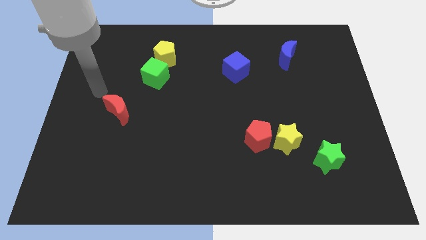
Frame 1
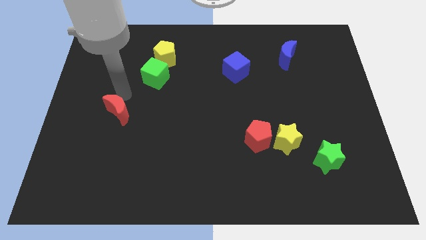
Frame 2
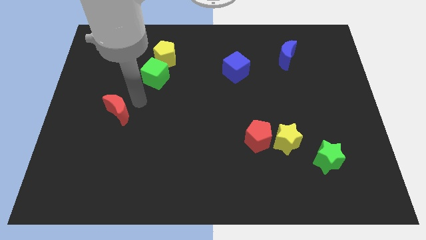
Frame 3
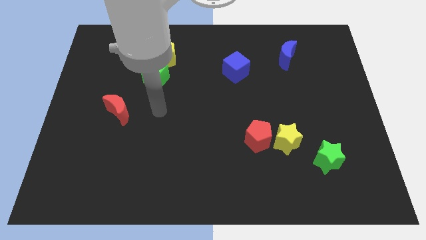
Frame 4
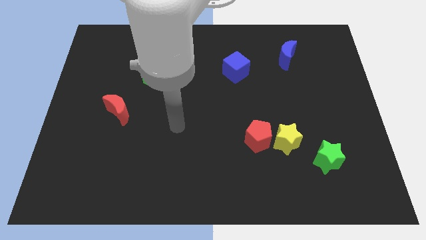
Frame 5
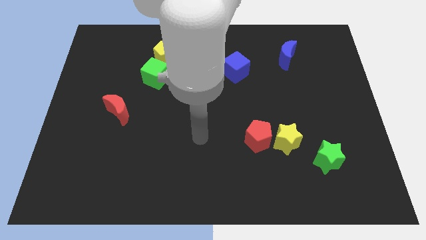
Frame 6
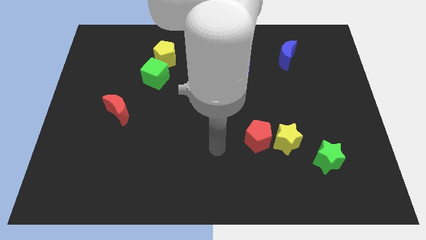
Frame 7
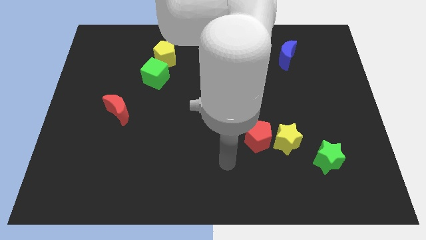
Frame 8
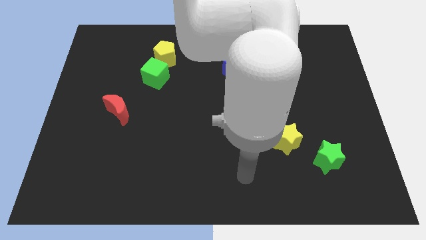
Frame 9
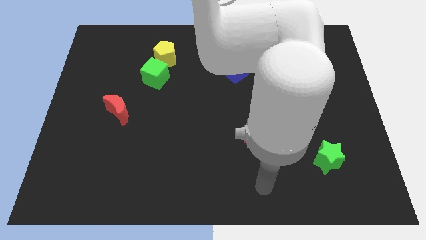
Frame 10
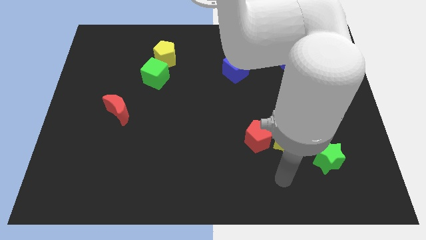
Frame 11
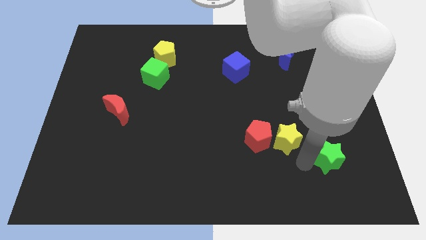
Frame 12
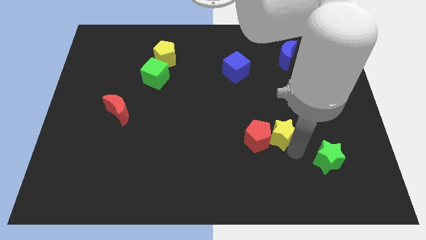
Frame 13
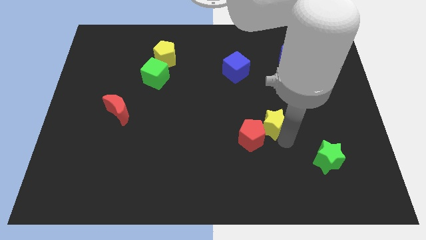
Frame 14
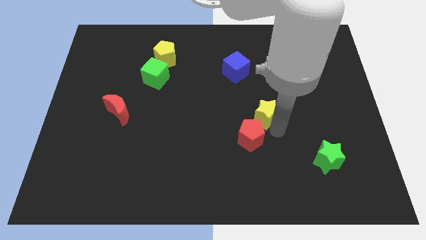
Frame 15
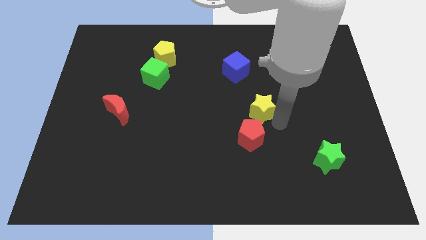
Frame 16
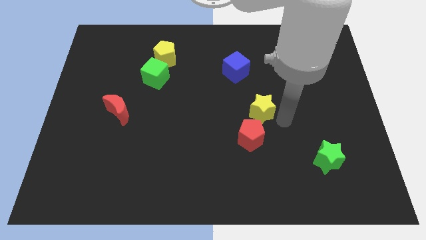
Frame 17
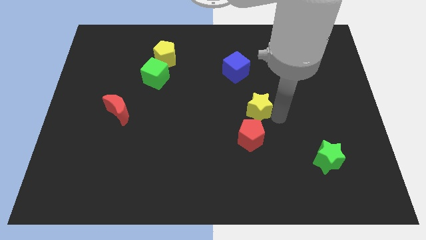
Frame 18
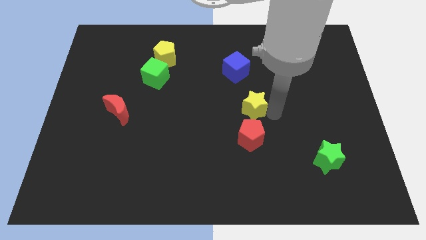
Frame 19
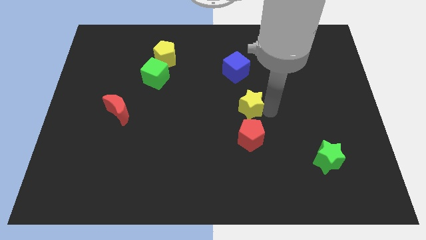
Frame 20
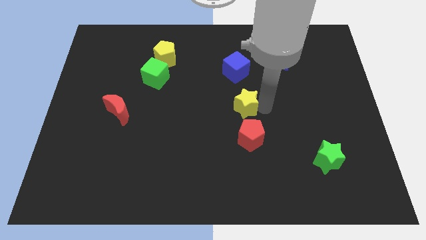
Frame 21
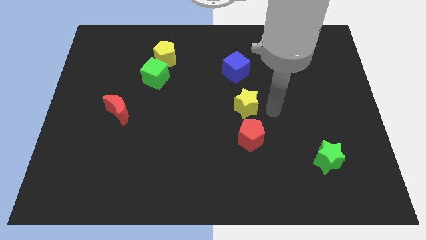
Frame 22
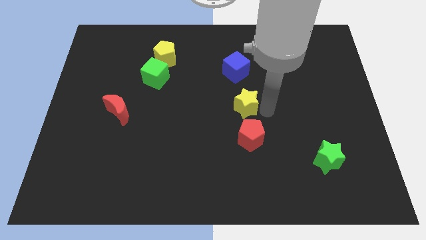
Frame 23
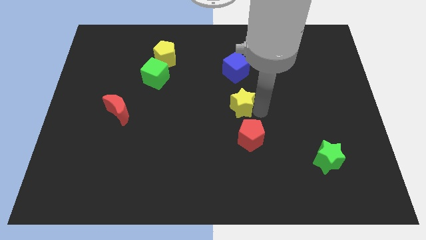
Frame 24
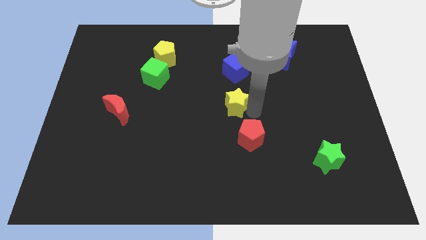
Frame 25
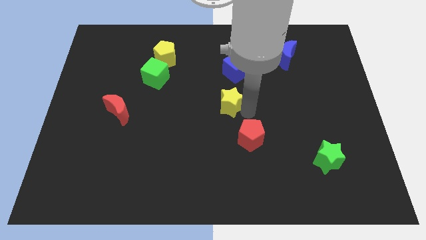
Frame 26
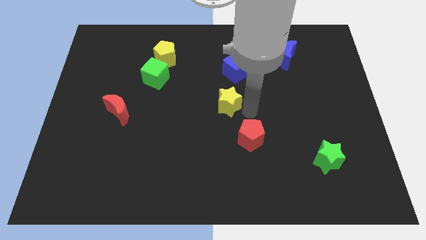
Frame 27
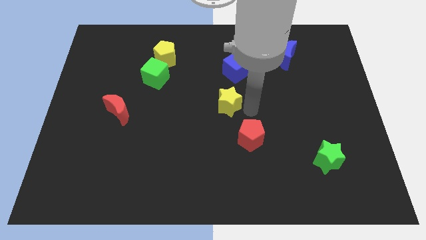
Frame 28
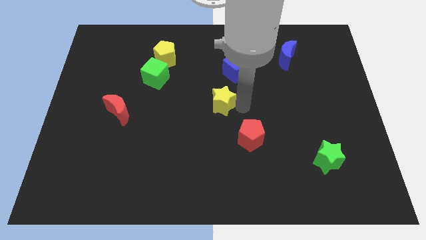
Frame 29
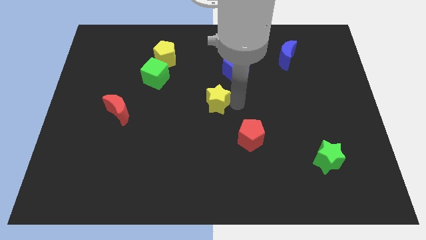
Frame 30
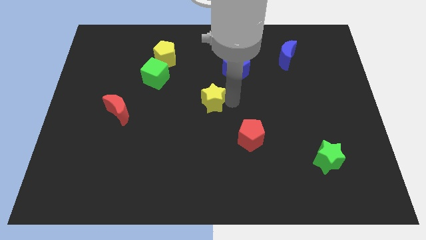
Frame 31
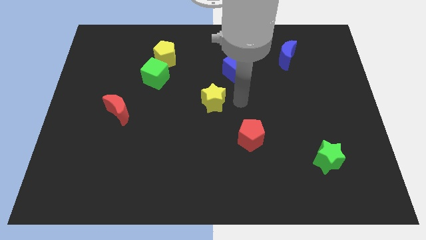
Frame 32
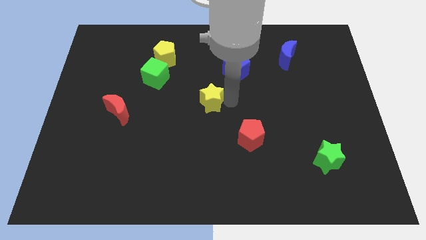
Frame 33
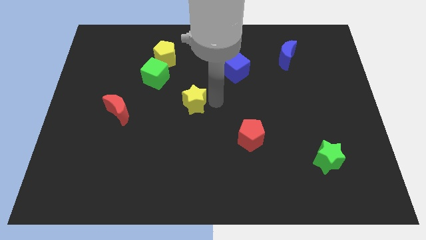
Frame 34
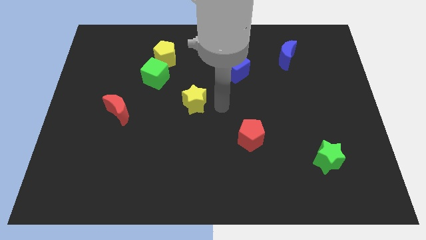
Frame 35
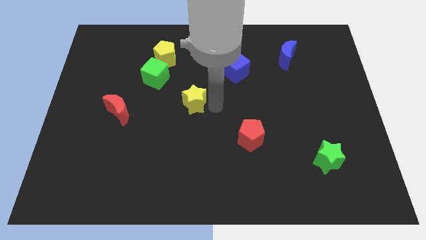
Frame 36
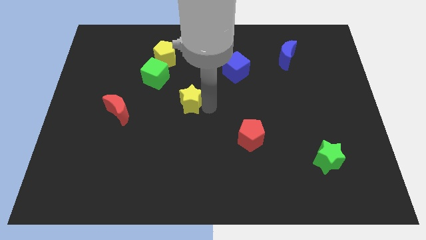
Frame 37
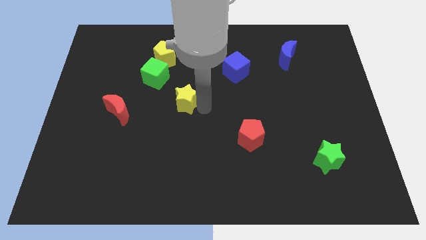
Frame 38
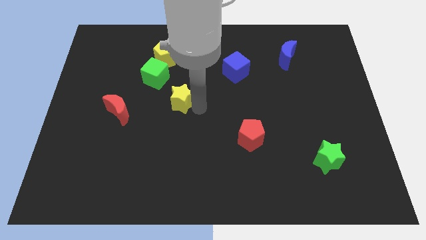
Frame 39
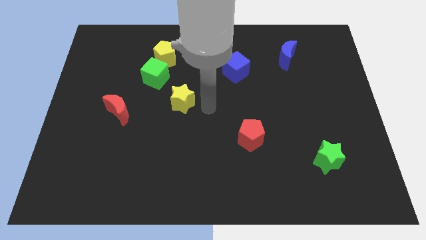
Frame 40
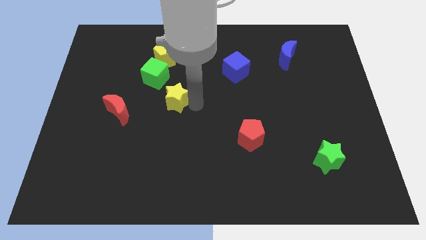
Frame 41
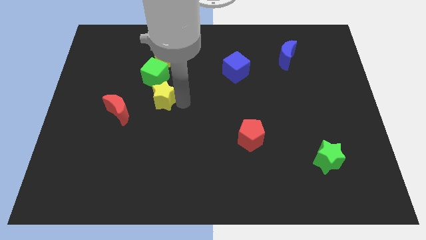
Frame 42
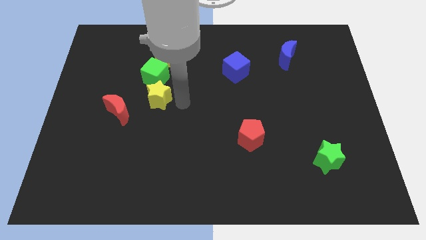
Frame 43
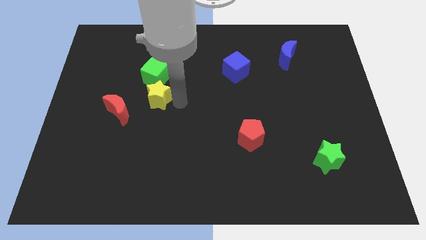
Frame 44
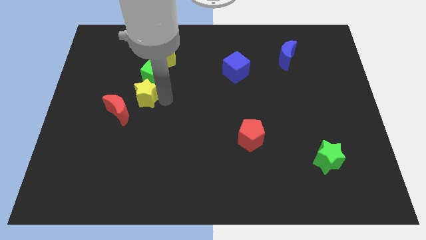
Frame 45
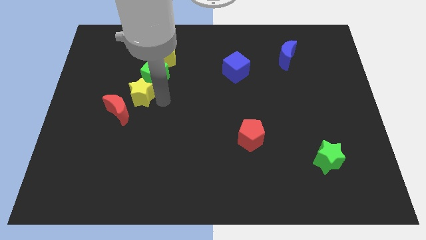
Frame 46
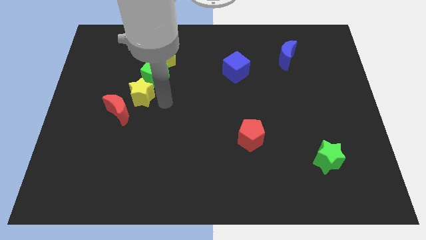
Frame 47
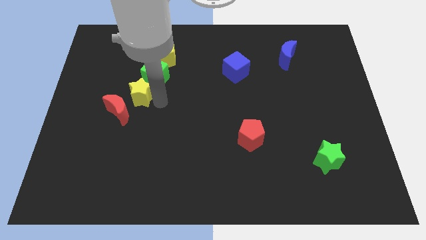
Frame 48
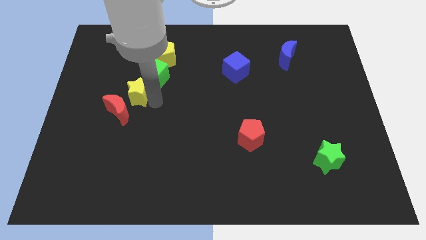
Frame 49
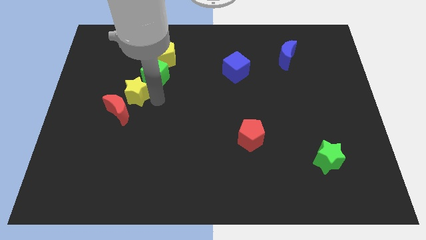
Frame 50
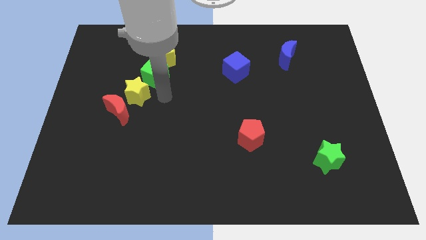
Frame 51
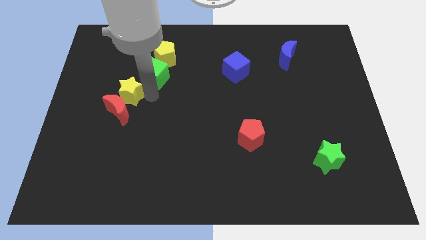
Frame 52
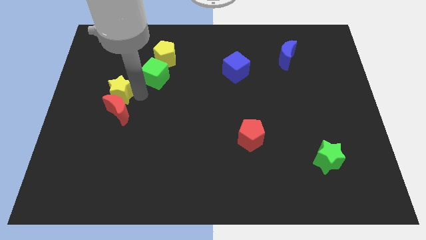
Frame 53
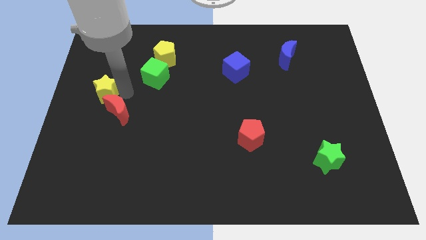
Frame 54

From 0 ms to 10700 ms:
put the yellow star to the left side of the board
